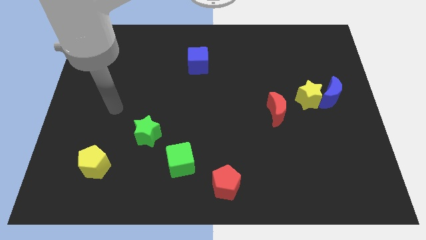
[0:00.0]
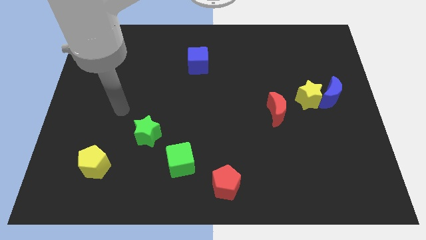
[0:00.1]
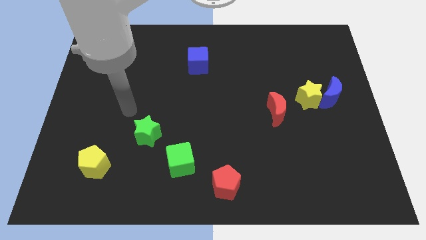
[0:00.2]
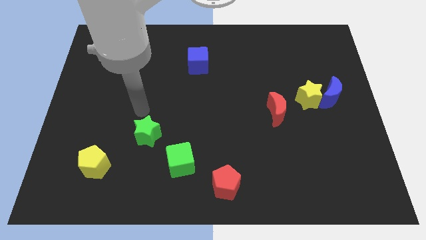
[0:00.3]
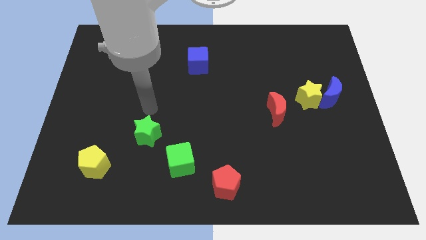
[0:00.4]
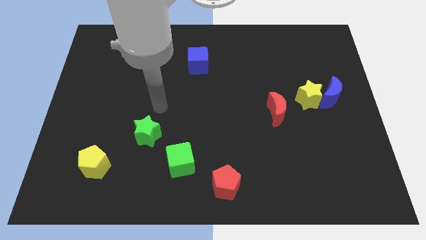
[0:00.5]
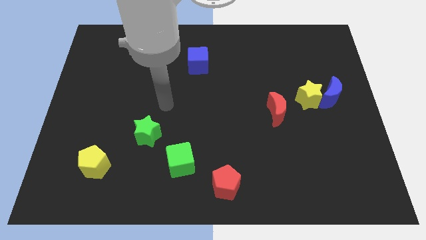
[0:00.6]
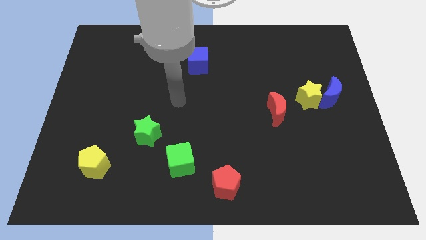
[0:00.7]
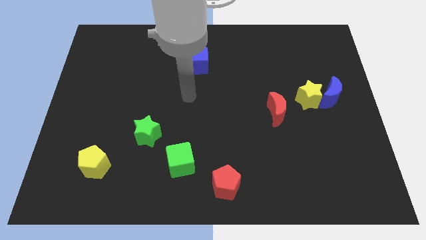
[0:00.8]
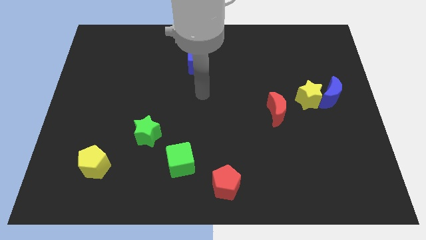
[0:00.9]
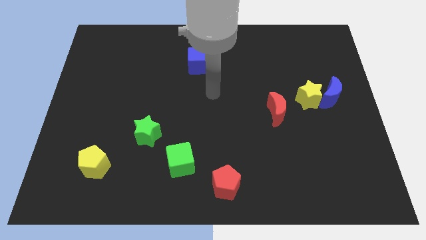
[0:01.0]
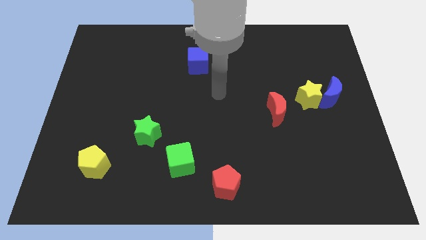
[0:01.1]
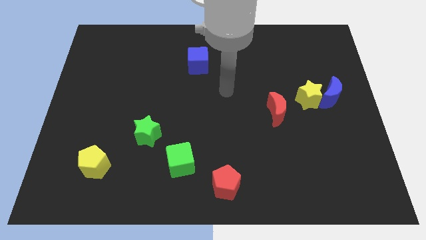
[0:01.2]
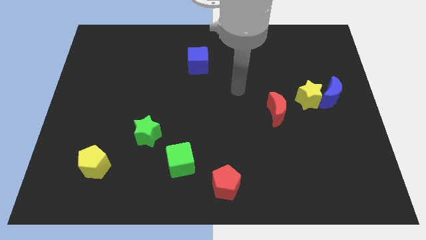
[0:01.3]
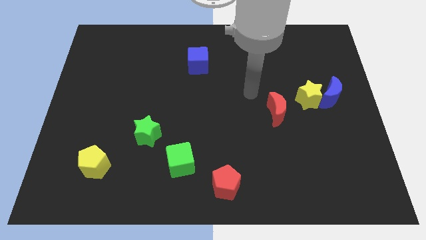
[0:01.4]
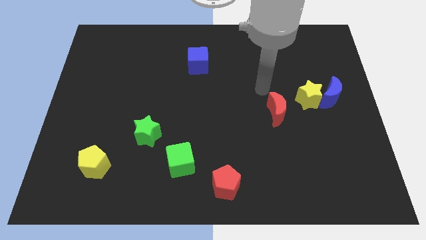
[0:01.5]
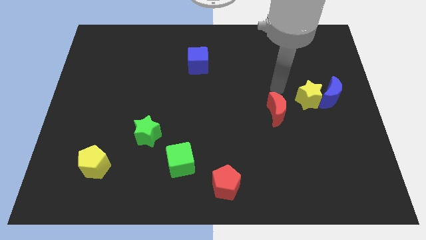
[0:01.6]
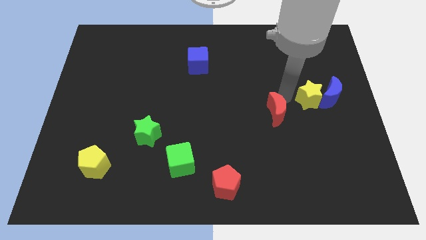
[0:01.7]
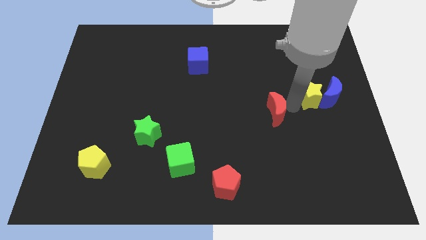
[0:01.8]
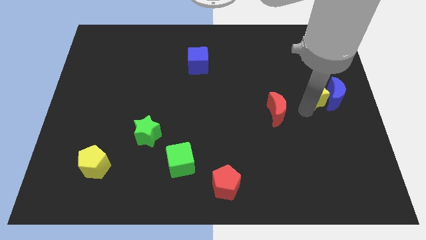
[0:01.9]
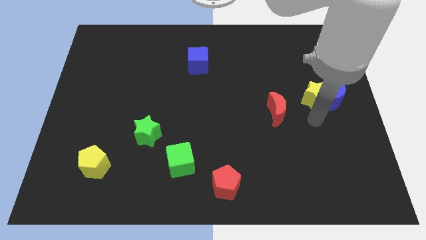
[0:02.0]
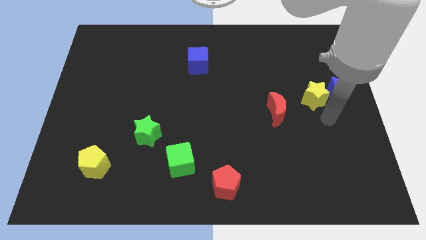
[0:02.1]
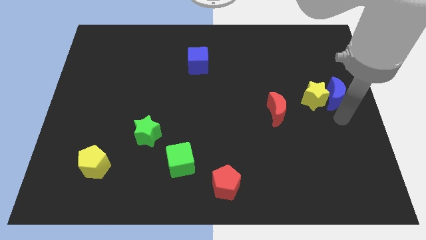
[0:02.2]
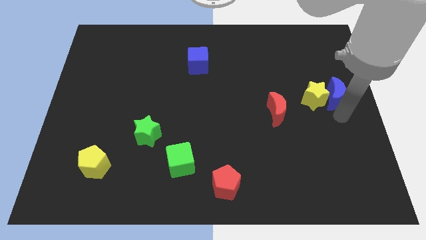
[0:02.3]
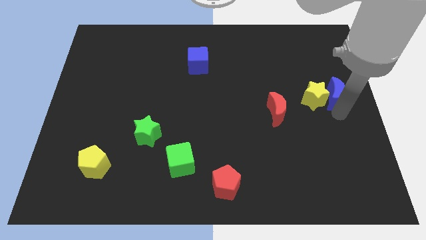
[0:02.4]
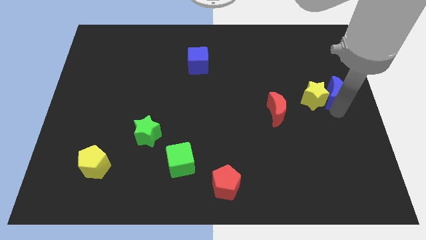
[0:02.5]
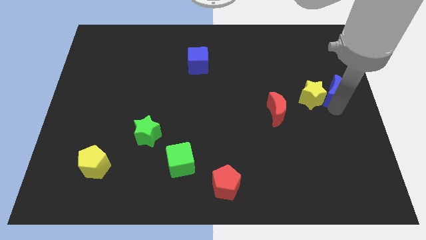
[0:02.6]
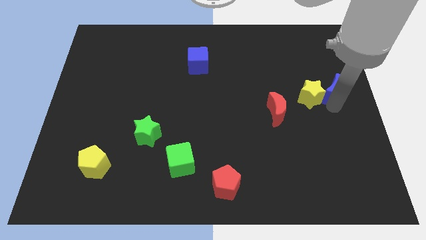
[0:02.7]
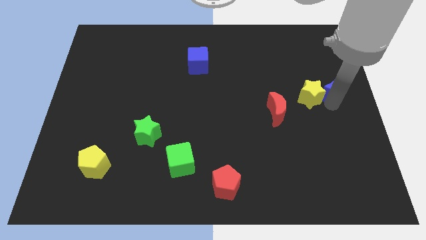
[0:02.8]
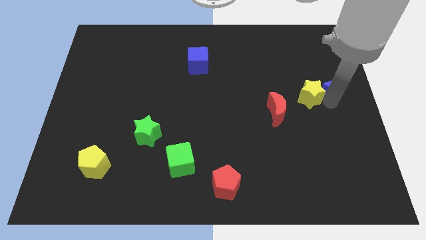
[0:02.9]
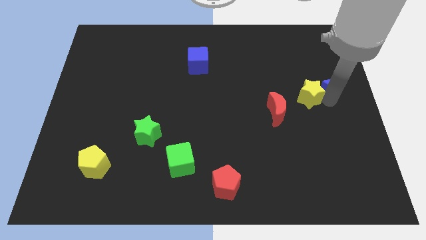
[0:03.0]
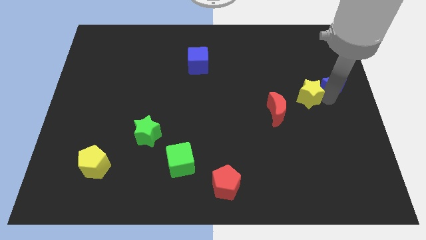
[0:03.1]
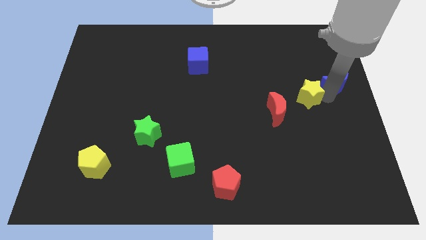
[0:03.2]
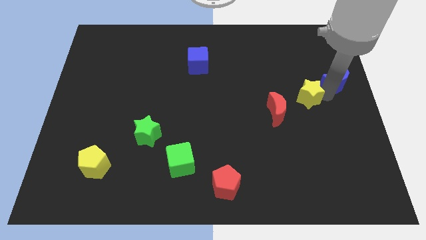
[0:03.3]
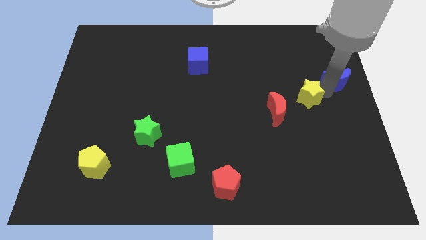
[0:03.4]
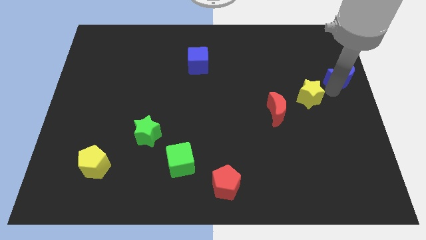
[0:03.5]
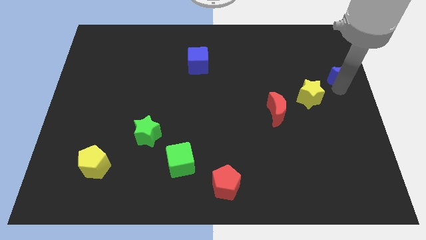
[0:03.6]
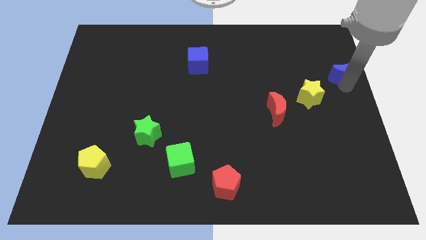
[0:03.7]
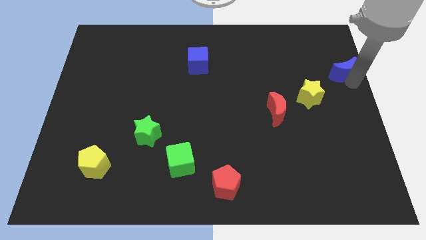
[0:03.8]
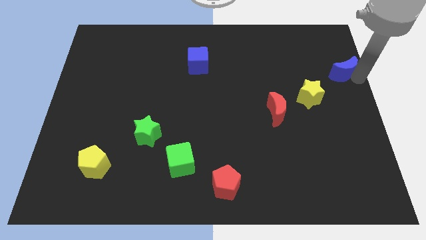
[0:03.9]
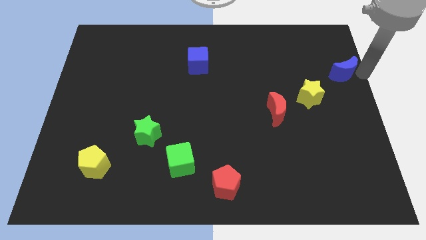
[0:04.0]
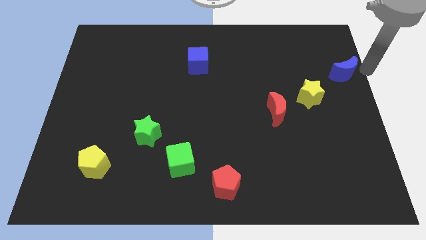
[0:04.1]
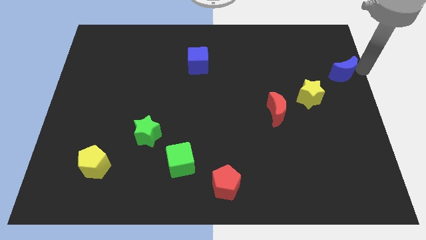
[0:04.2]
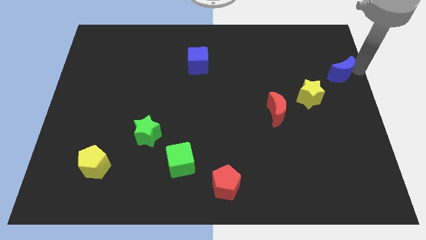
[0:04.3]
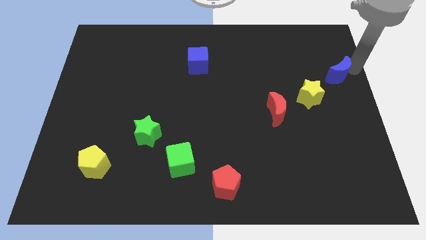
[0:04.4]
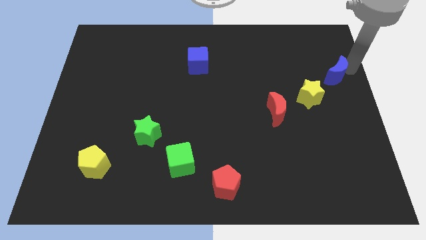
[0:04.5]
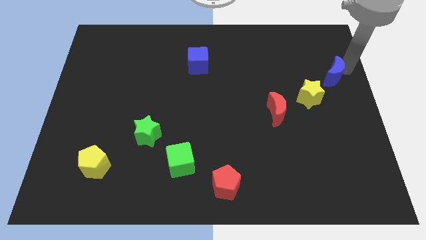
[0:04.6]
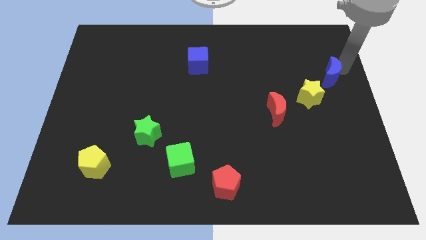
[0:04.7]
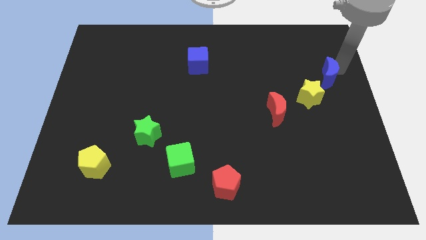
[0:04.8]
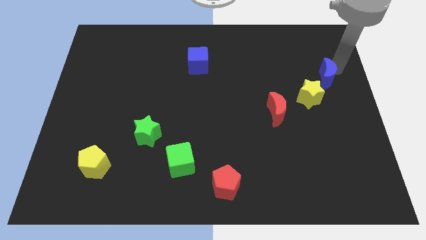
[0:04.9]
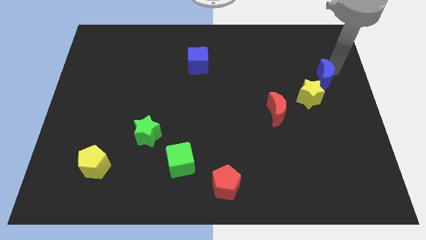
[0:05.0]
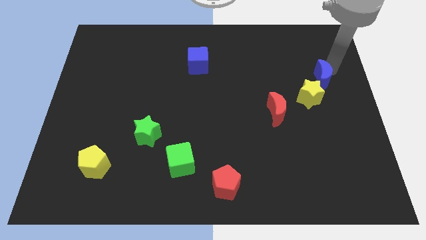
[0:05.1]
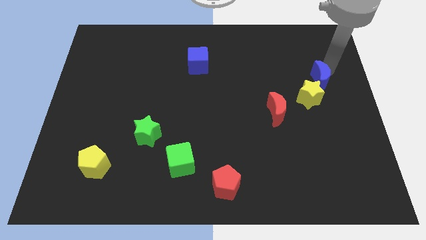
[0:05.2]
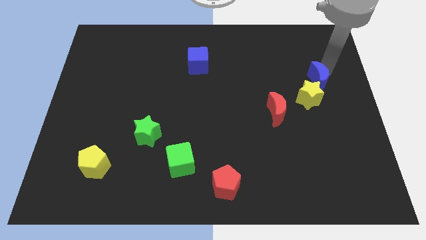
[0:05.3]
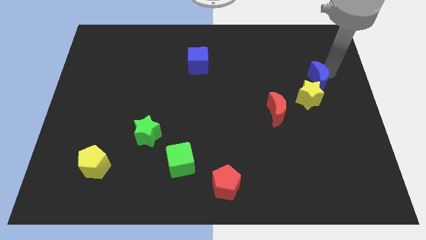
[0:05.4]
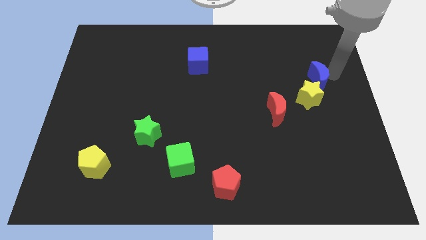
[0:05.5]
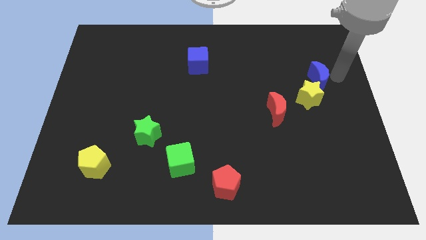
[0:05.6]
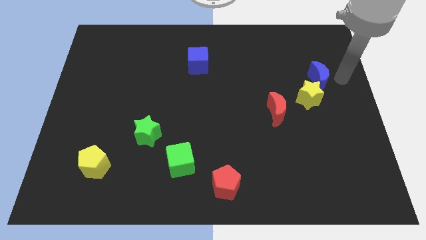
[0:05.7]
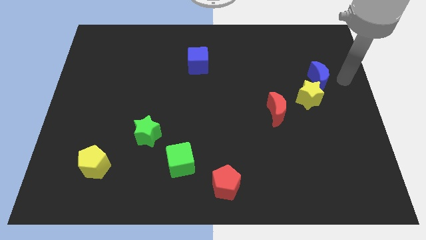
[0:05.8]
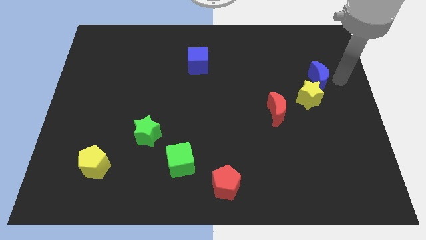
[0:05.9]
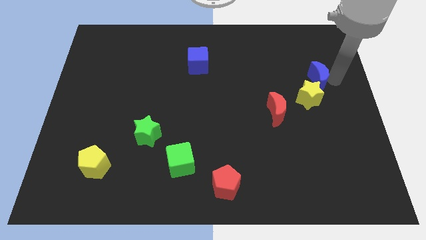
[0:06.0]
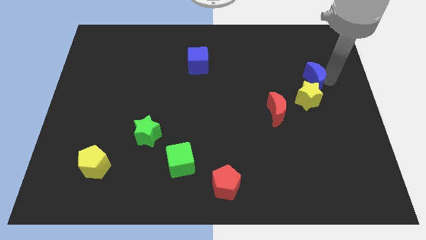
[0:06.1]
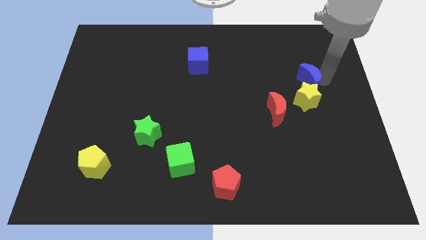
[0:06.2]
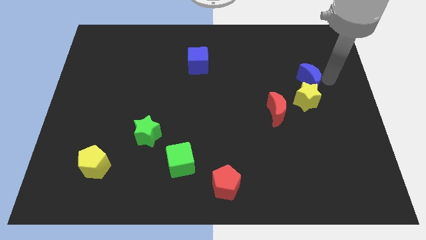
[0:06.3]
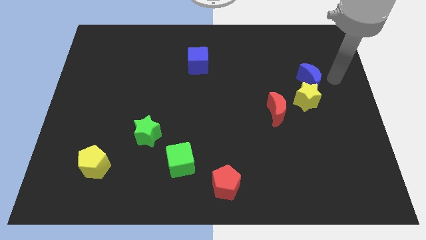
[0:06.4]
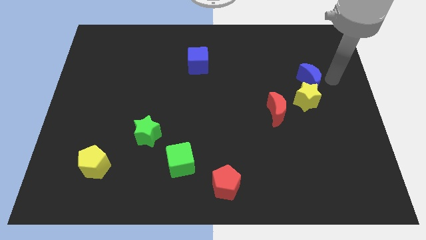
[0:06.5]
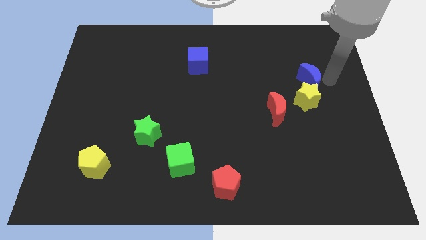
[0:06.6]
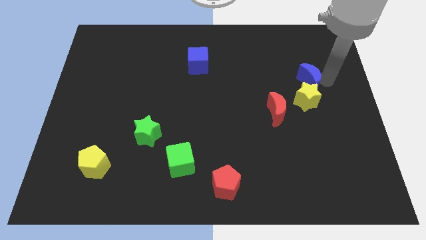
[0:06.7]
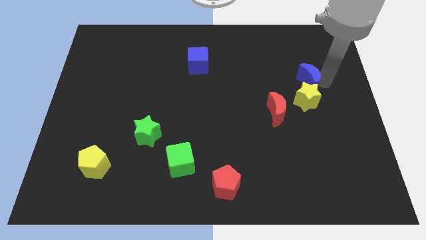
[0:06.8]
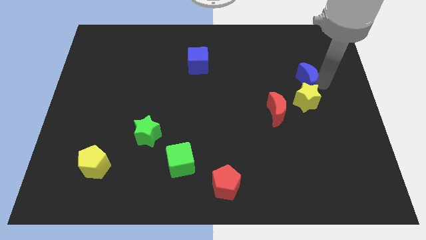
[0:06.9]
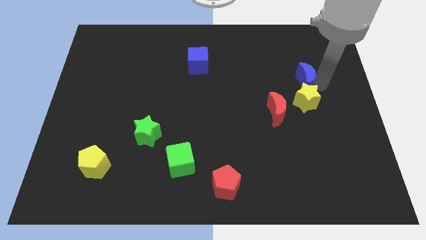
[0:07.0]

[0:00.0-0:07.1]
push the blue moon diagonally up and to the left of the yellow star
